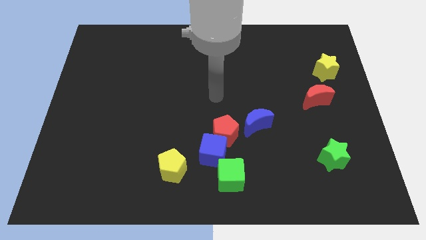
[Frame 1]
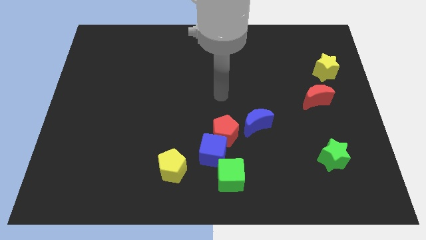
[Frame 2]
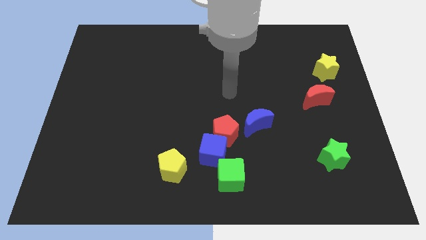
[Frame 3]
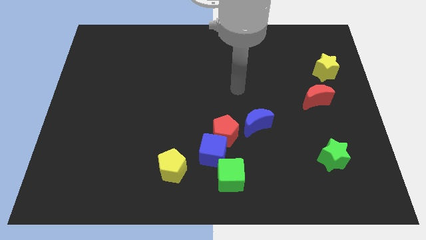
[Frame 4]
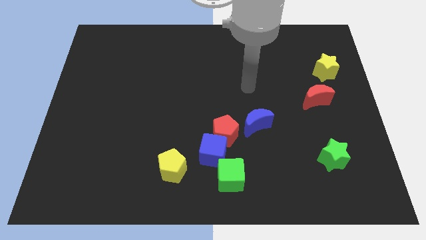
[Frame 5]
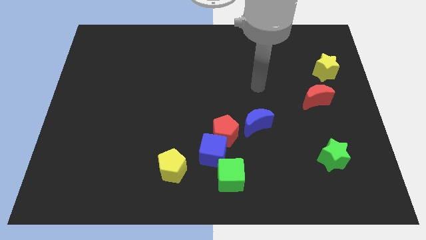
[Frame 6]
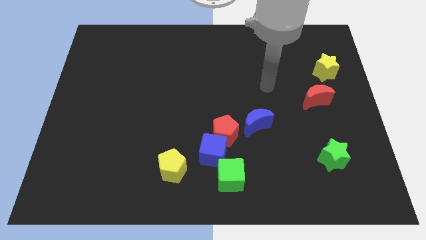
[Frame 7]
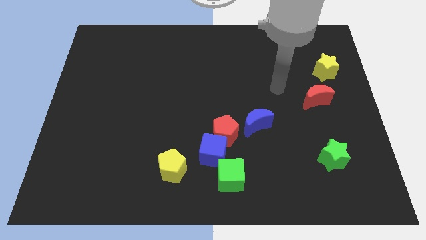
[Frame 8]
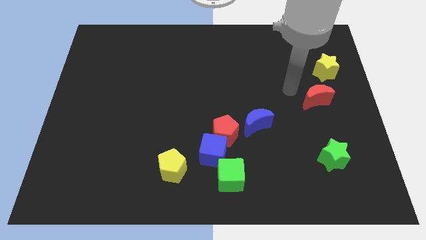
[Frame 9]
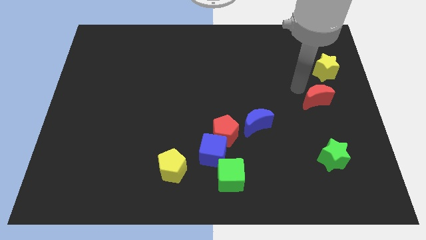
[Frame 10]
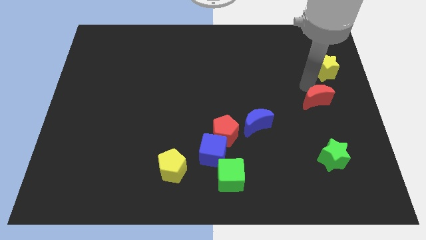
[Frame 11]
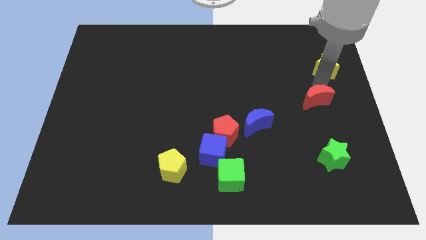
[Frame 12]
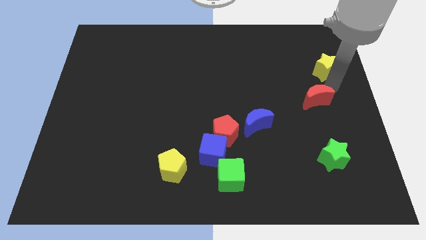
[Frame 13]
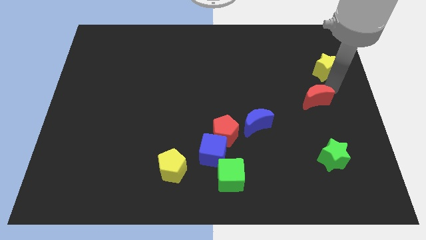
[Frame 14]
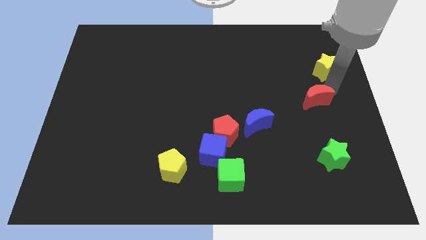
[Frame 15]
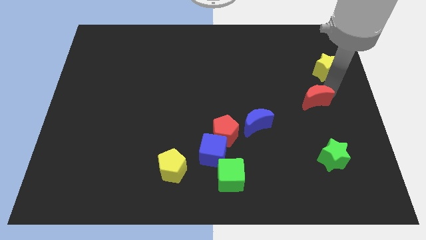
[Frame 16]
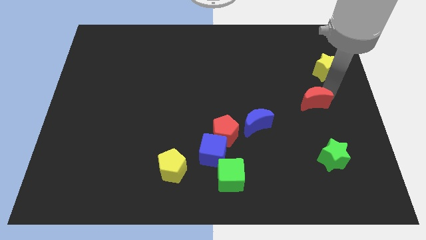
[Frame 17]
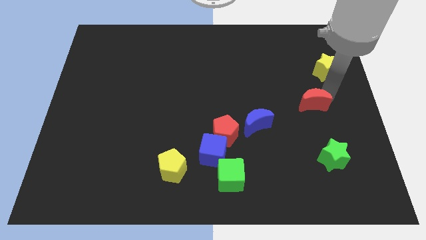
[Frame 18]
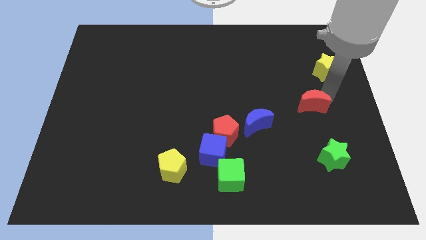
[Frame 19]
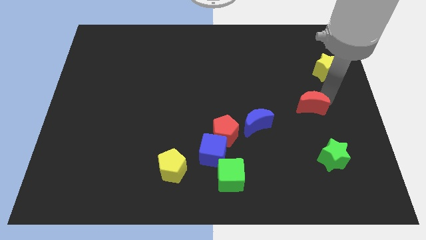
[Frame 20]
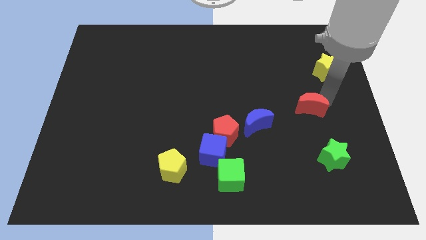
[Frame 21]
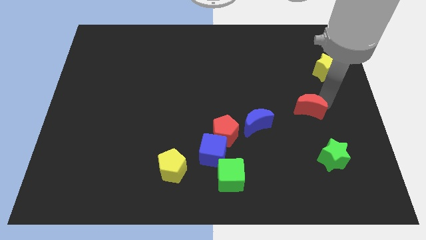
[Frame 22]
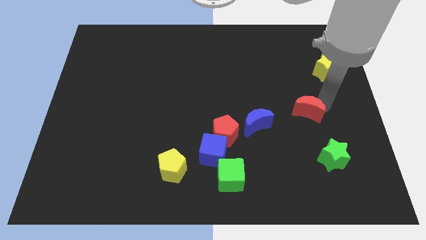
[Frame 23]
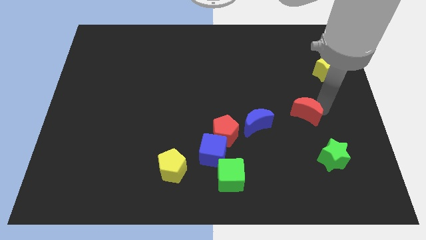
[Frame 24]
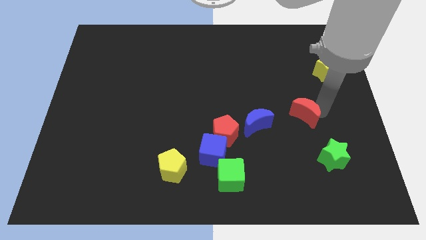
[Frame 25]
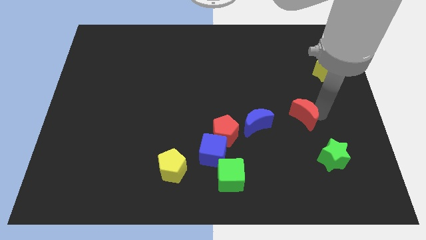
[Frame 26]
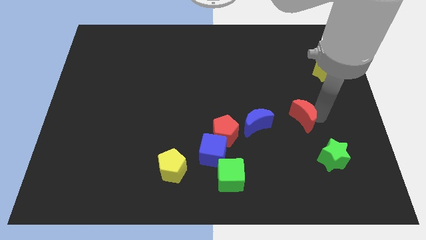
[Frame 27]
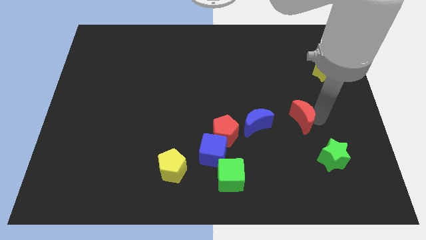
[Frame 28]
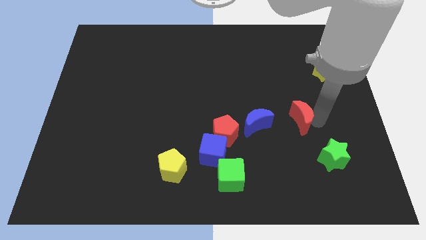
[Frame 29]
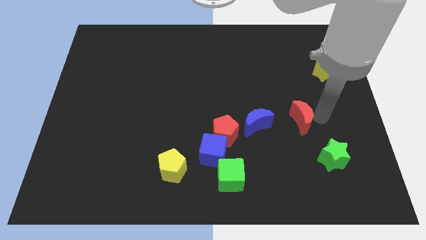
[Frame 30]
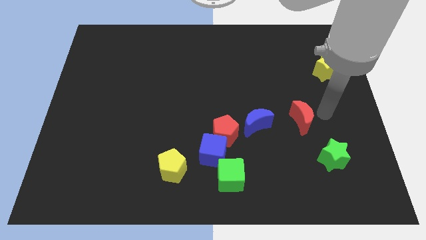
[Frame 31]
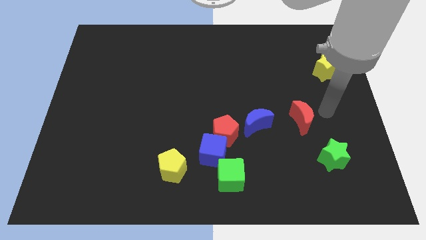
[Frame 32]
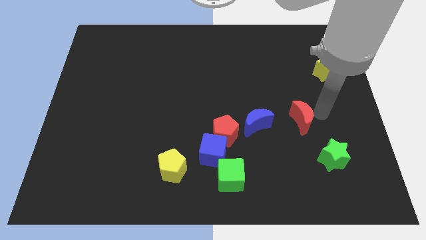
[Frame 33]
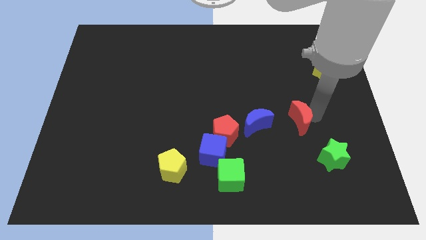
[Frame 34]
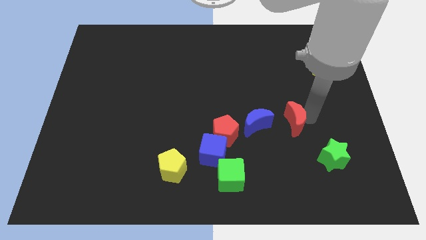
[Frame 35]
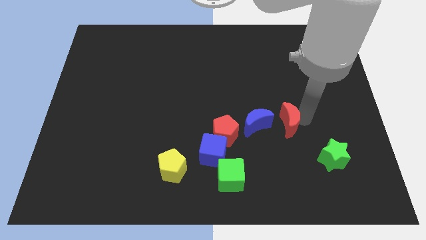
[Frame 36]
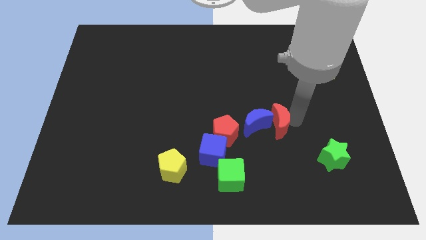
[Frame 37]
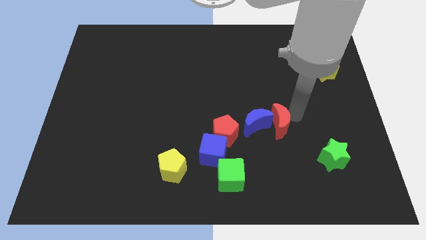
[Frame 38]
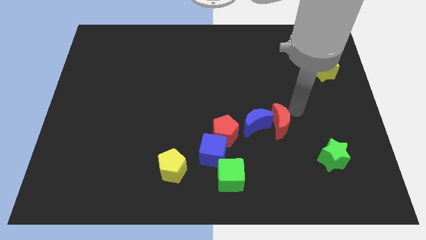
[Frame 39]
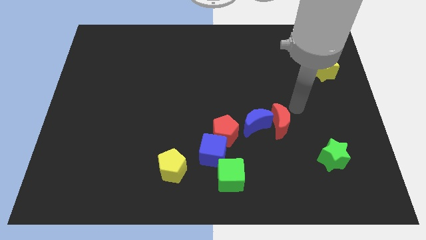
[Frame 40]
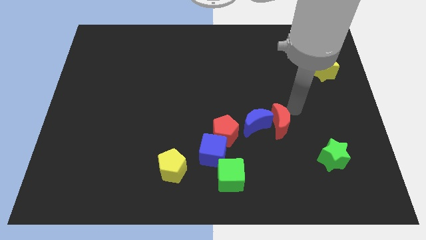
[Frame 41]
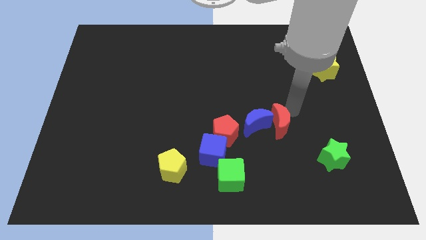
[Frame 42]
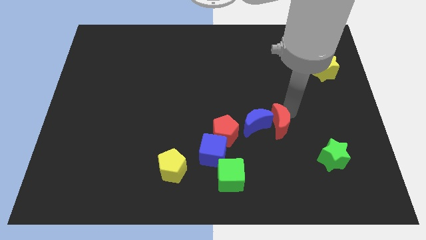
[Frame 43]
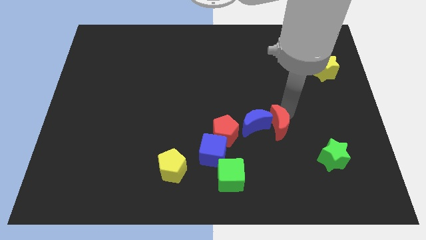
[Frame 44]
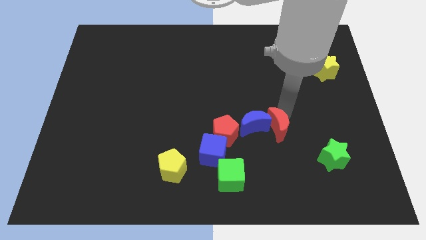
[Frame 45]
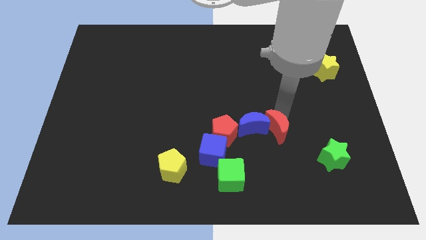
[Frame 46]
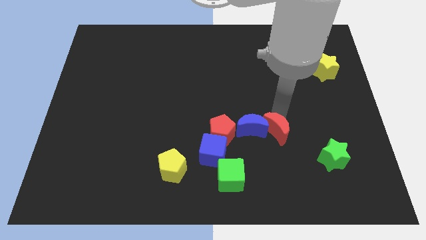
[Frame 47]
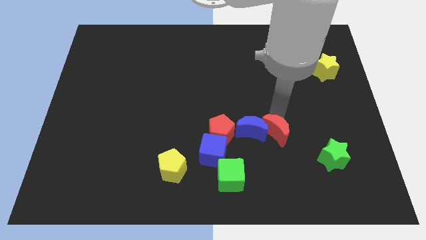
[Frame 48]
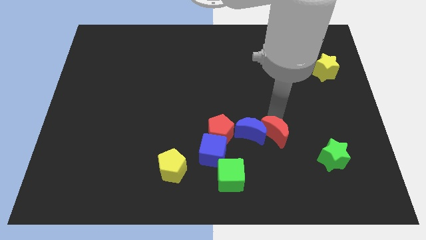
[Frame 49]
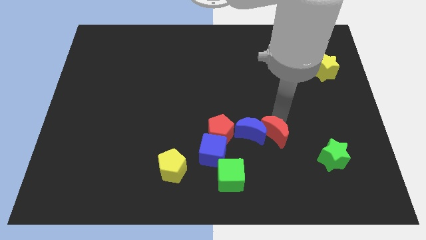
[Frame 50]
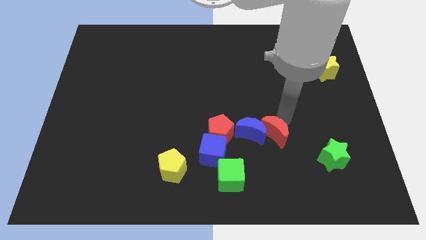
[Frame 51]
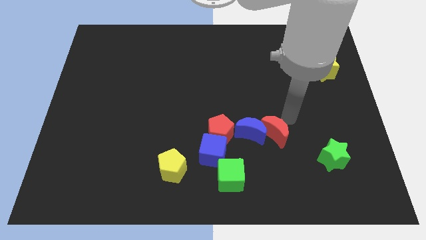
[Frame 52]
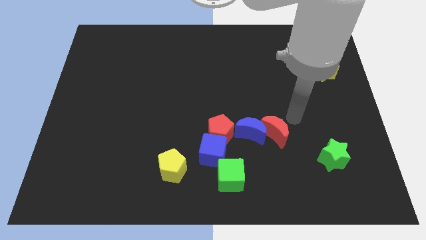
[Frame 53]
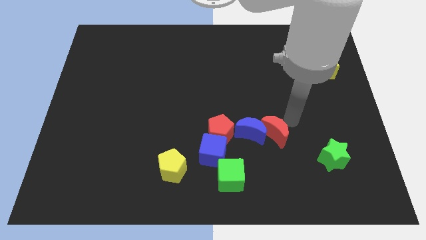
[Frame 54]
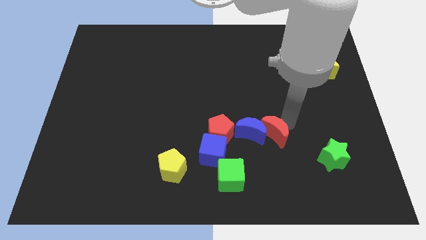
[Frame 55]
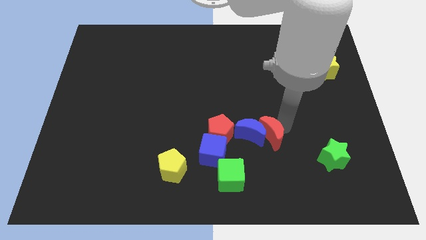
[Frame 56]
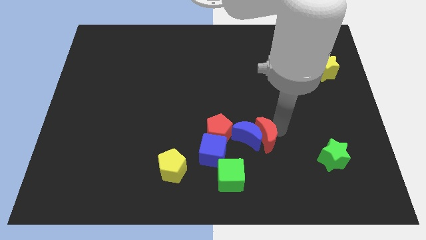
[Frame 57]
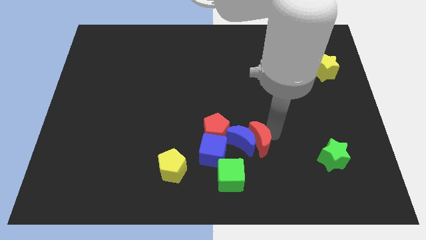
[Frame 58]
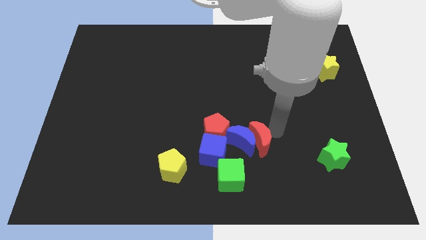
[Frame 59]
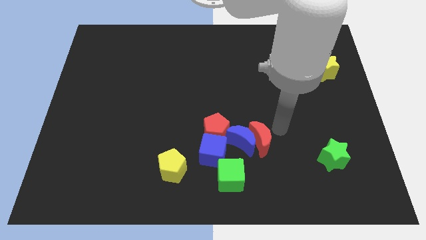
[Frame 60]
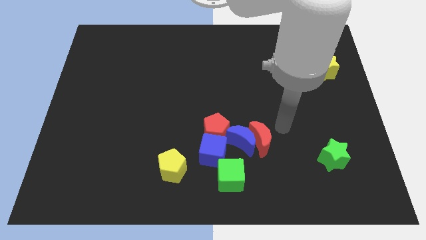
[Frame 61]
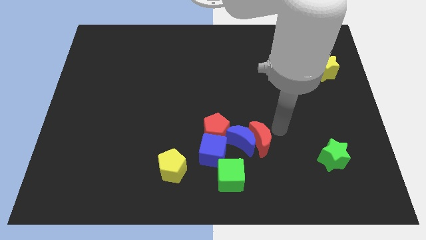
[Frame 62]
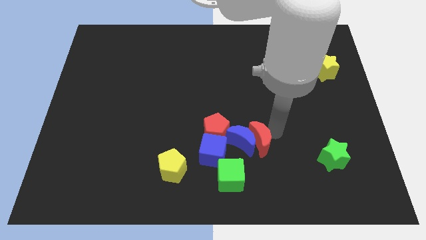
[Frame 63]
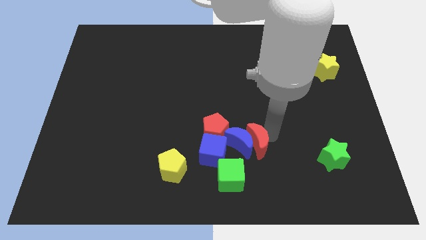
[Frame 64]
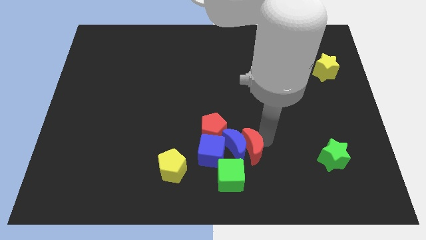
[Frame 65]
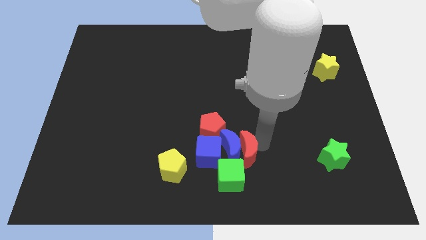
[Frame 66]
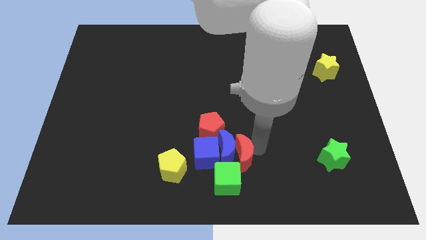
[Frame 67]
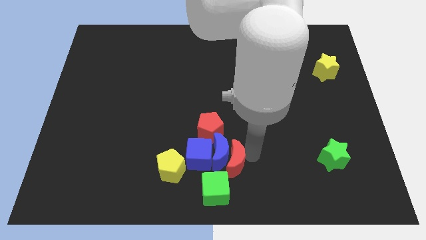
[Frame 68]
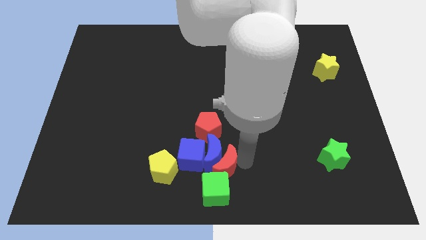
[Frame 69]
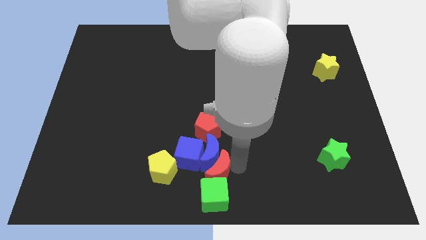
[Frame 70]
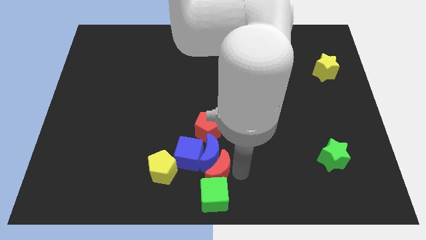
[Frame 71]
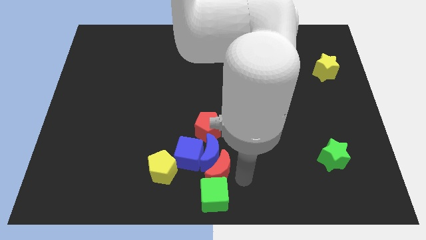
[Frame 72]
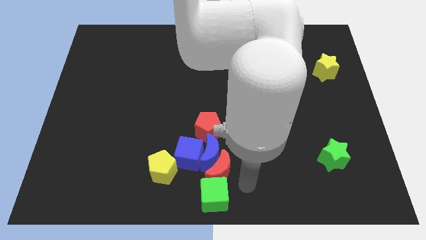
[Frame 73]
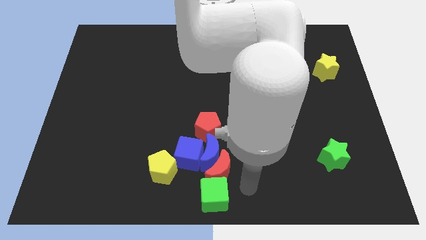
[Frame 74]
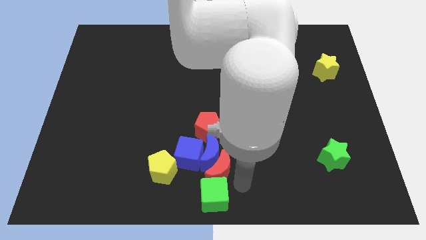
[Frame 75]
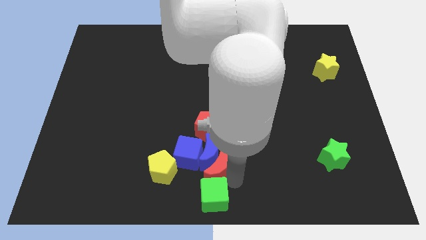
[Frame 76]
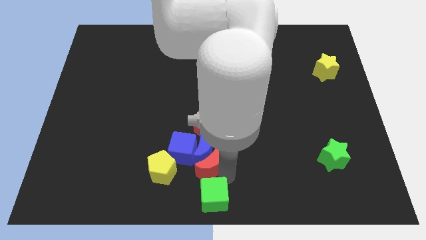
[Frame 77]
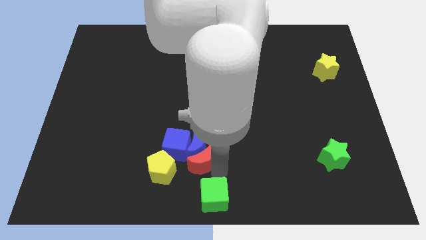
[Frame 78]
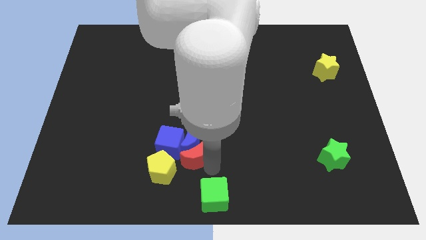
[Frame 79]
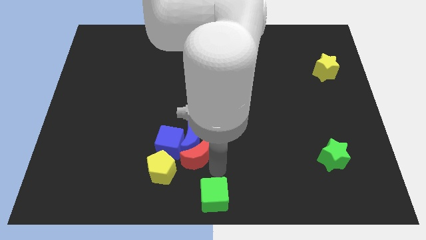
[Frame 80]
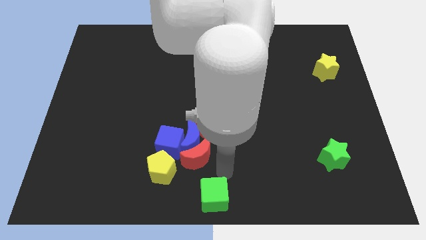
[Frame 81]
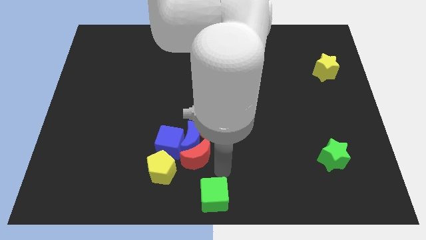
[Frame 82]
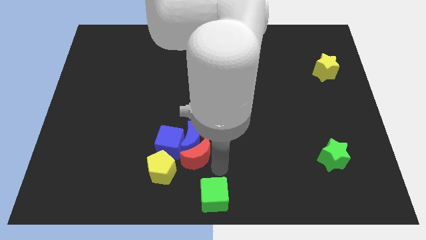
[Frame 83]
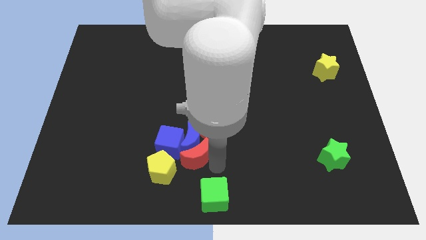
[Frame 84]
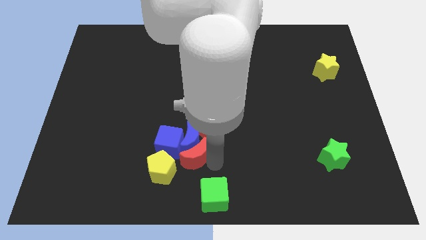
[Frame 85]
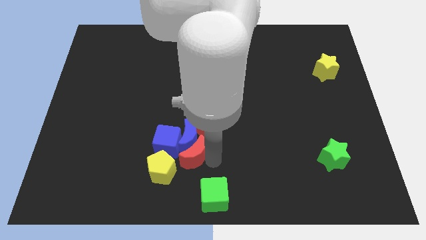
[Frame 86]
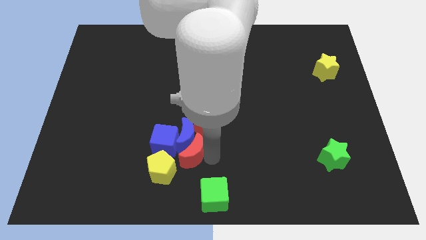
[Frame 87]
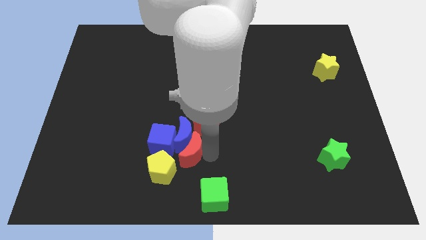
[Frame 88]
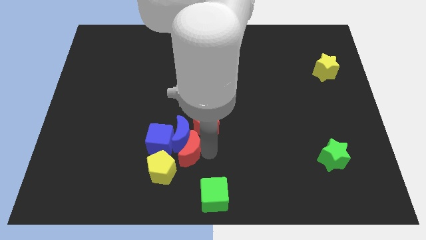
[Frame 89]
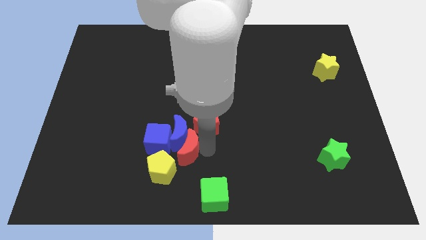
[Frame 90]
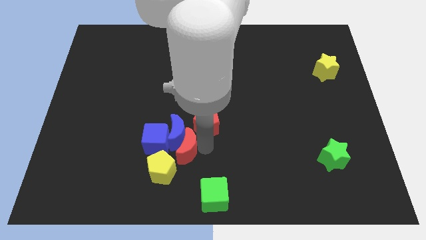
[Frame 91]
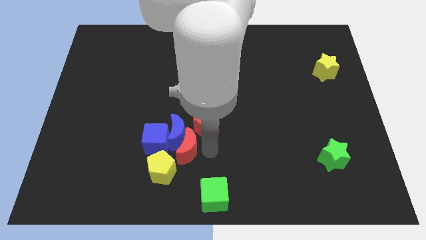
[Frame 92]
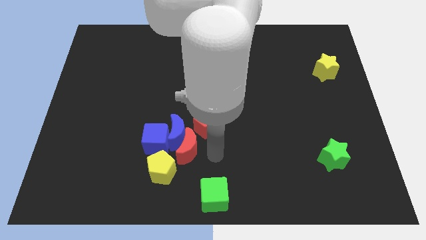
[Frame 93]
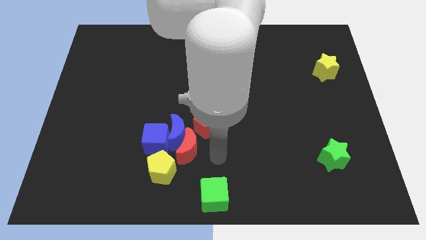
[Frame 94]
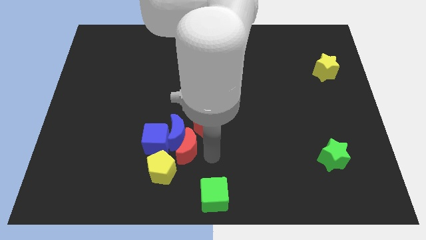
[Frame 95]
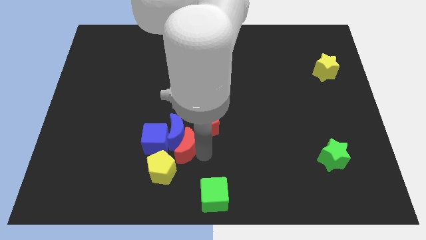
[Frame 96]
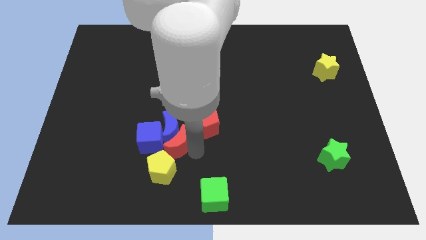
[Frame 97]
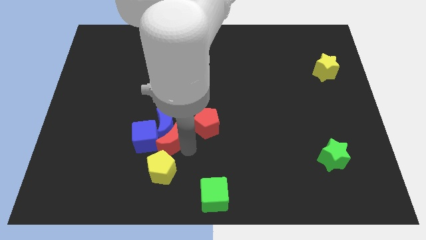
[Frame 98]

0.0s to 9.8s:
slide the red moon close to the blue cube
